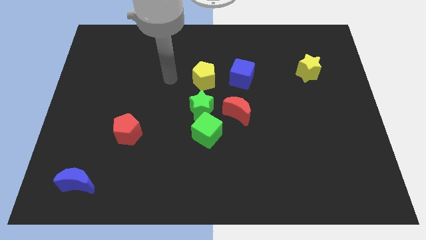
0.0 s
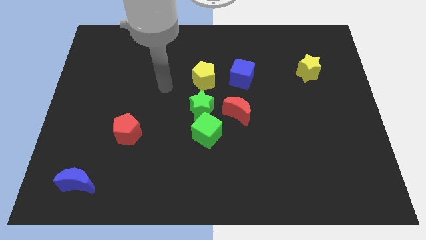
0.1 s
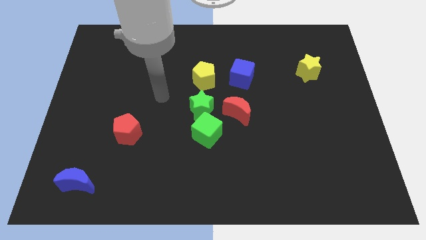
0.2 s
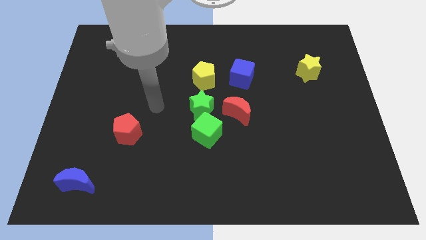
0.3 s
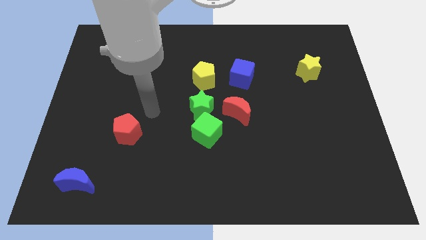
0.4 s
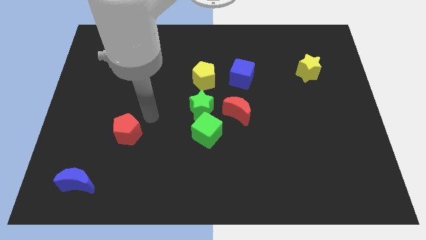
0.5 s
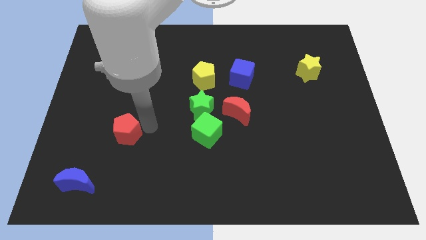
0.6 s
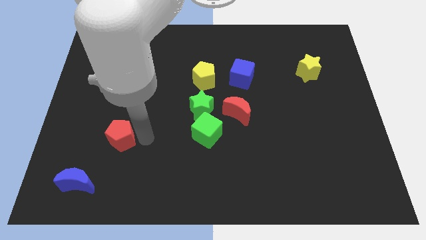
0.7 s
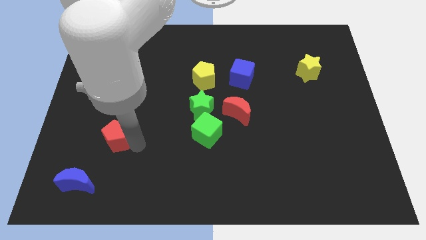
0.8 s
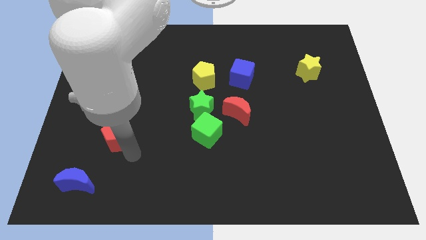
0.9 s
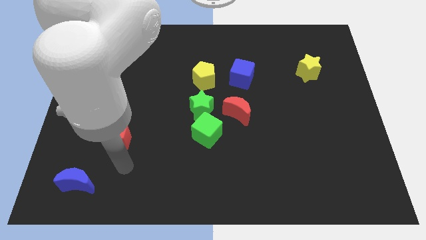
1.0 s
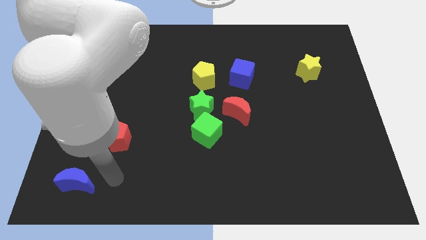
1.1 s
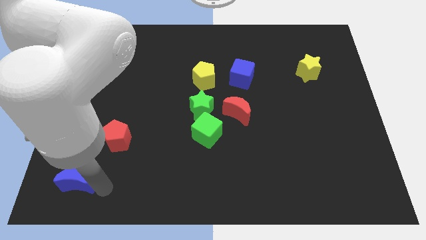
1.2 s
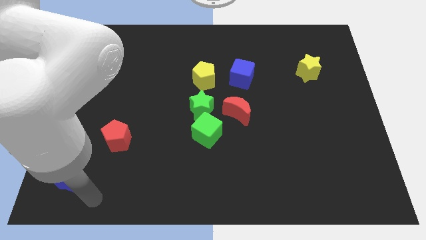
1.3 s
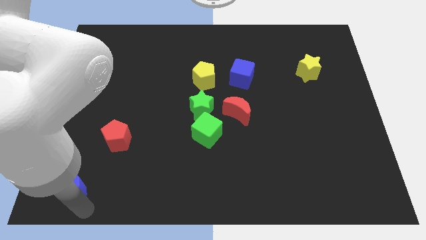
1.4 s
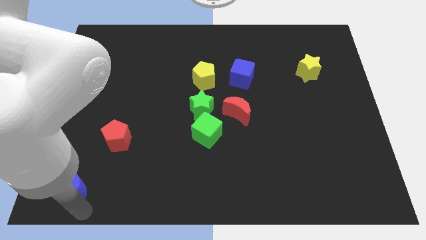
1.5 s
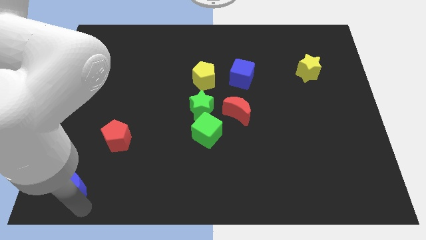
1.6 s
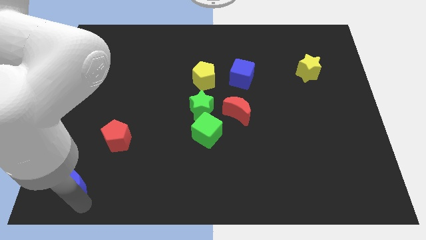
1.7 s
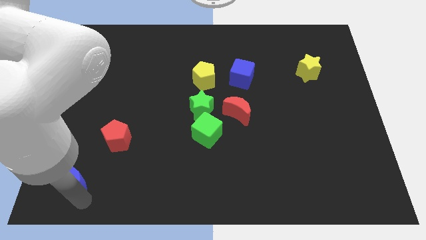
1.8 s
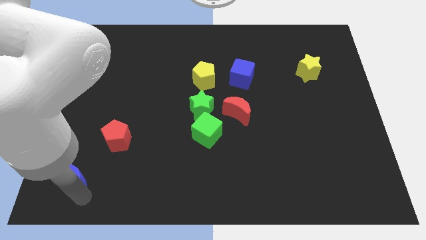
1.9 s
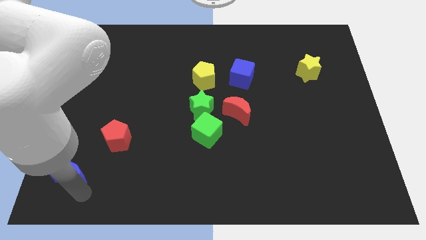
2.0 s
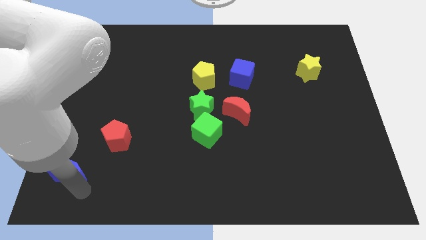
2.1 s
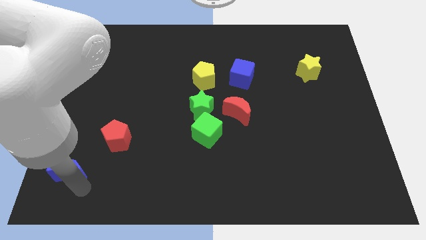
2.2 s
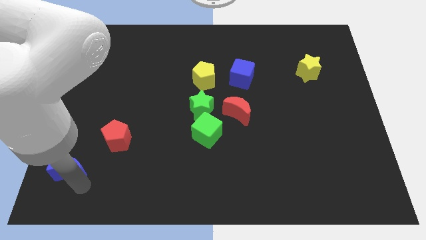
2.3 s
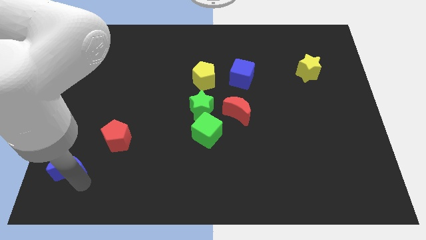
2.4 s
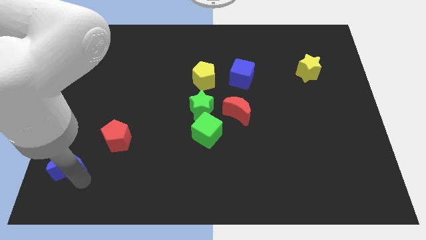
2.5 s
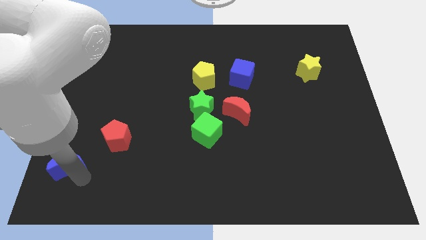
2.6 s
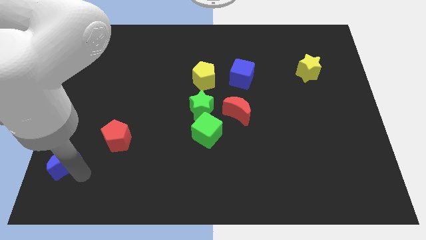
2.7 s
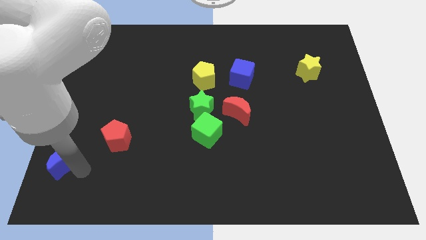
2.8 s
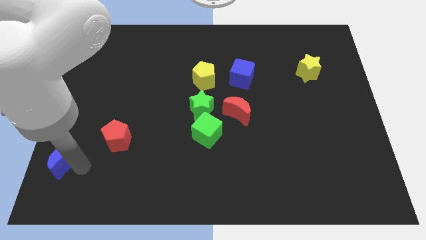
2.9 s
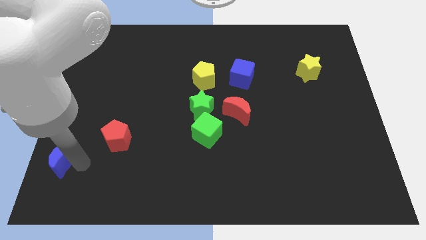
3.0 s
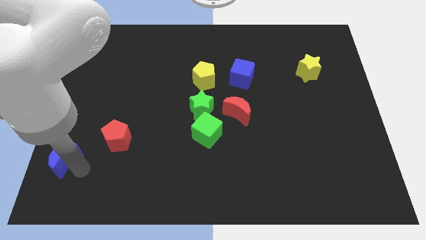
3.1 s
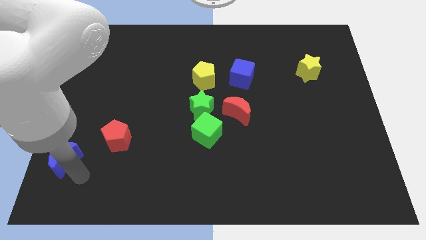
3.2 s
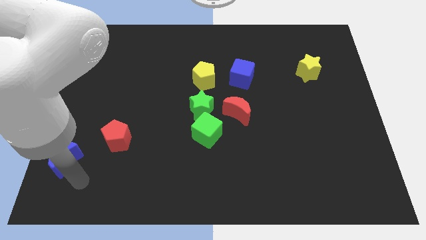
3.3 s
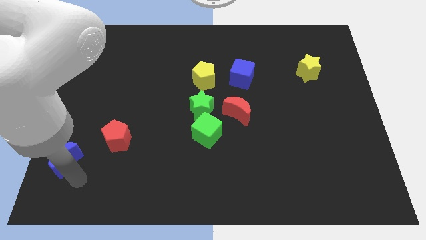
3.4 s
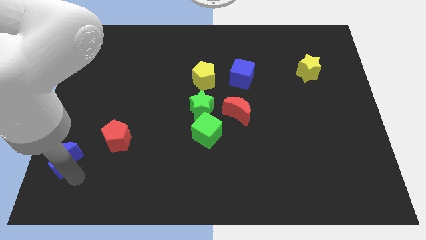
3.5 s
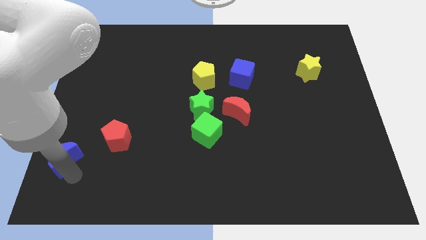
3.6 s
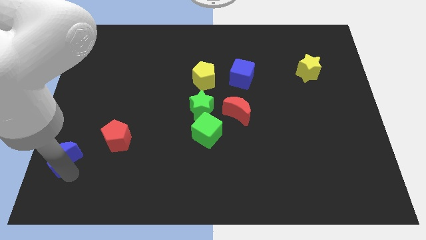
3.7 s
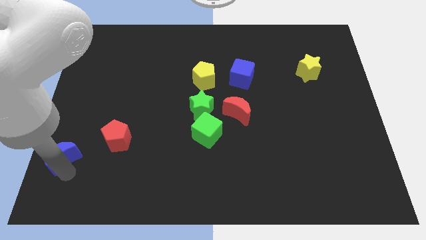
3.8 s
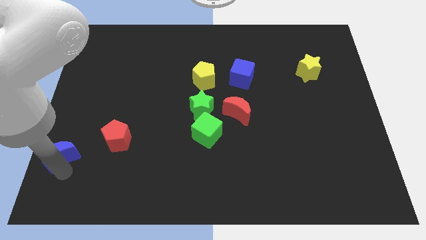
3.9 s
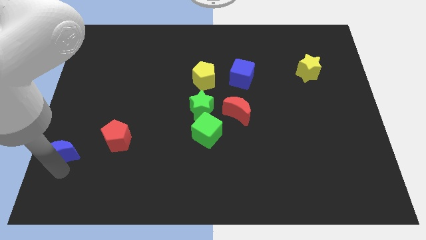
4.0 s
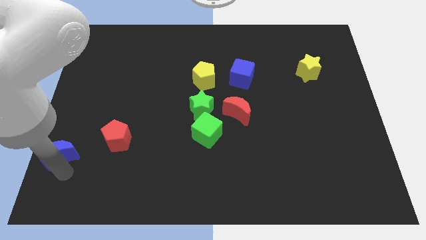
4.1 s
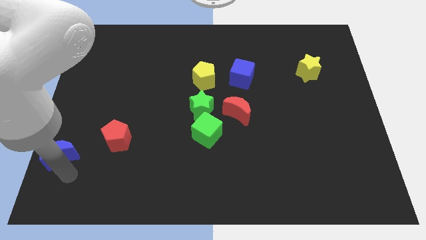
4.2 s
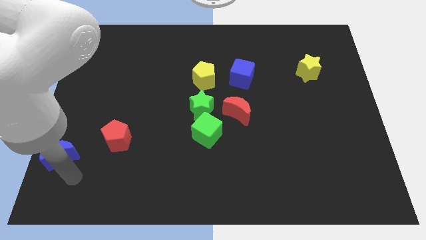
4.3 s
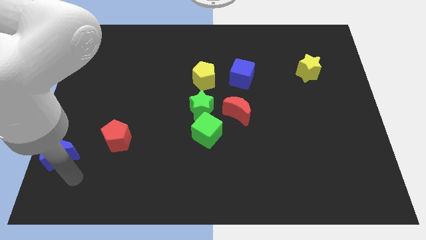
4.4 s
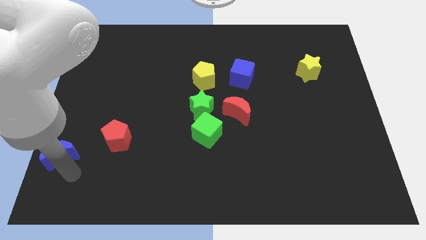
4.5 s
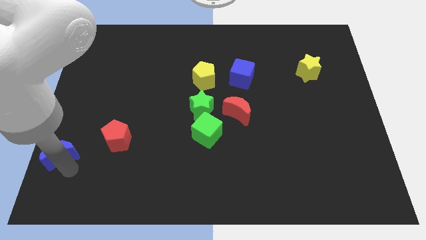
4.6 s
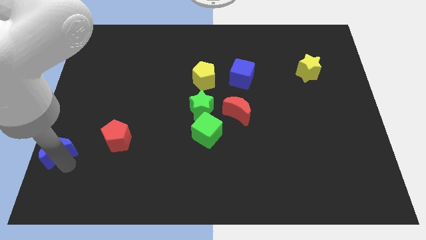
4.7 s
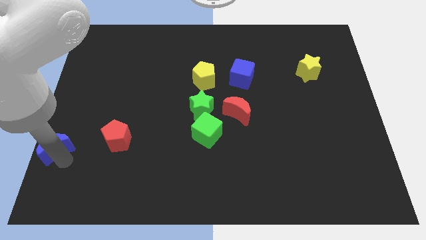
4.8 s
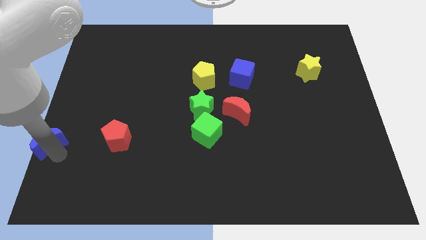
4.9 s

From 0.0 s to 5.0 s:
move the blue moon to the left side of the board
